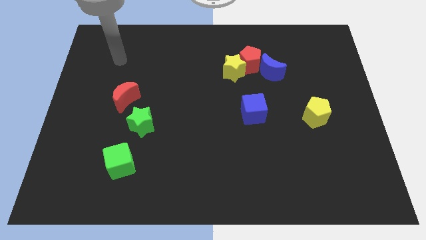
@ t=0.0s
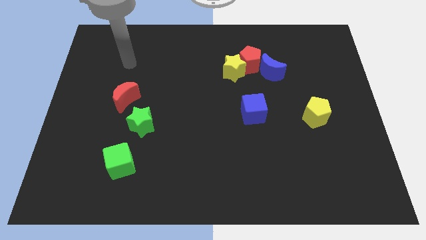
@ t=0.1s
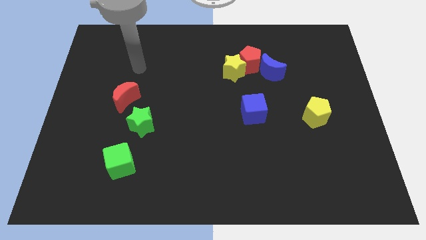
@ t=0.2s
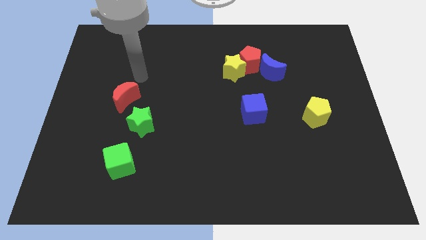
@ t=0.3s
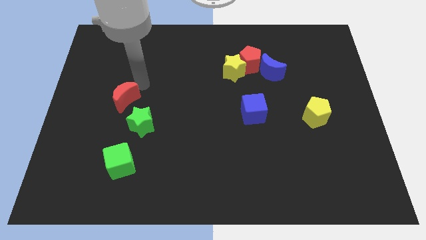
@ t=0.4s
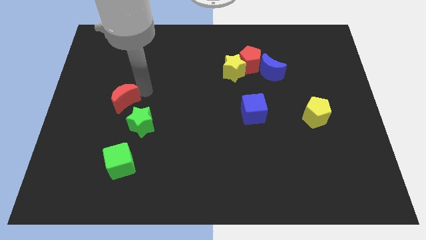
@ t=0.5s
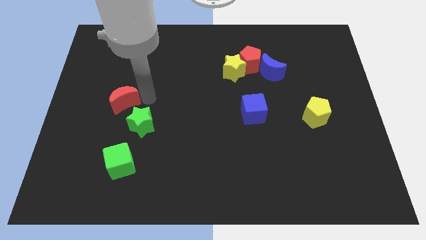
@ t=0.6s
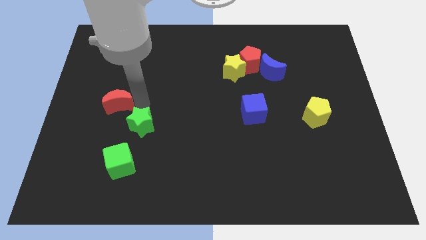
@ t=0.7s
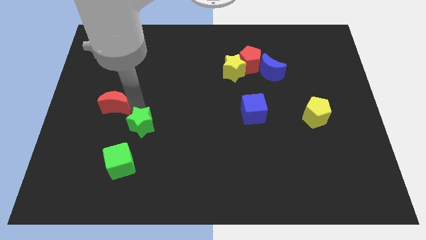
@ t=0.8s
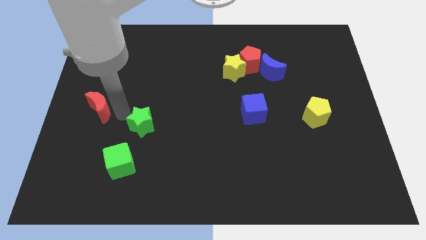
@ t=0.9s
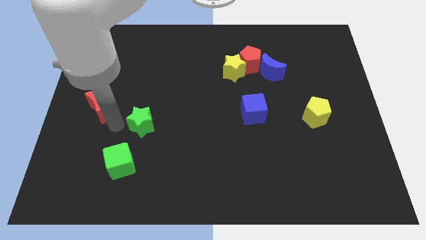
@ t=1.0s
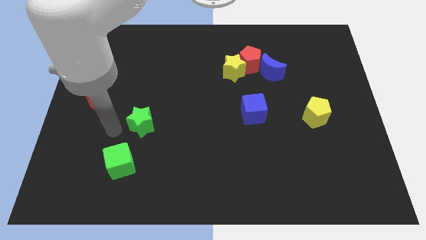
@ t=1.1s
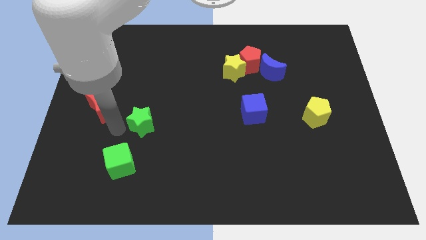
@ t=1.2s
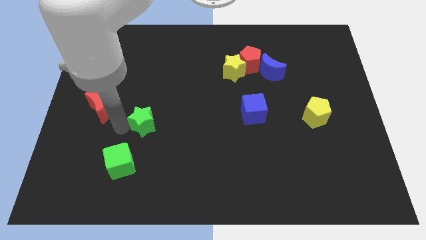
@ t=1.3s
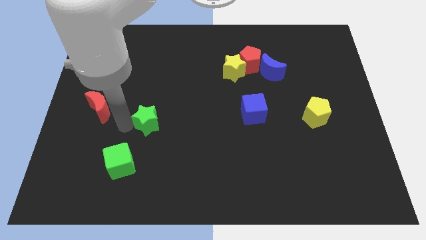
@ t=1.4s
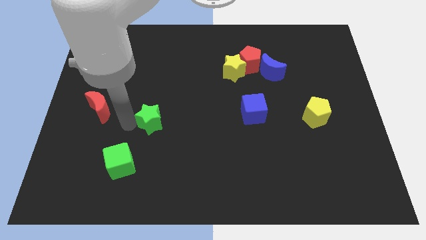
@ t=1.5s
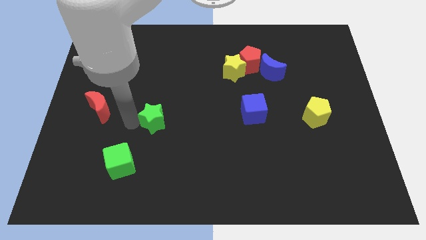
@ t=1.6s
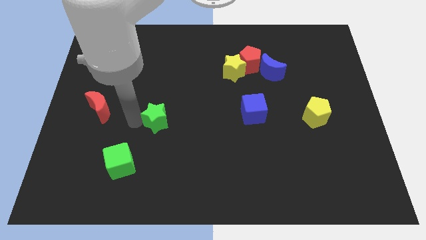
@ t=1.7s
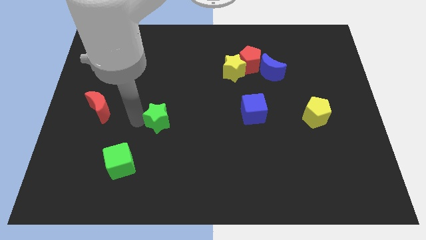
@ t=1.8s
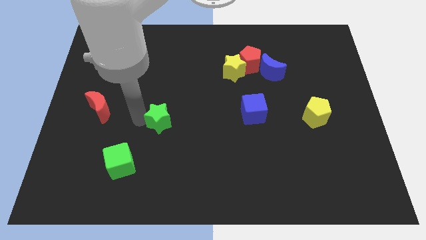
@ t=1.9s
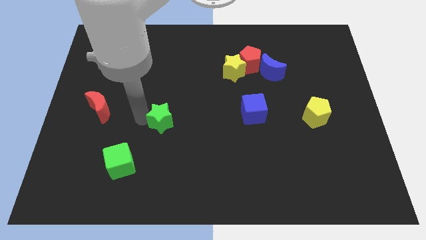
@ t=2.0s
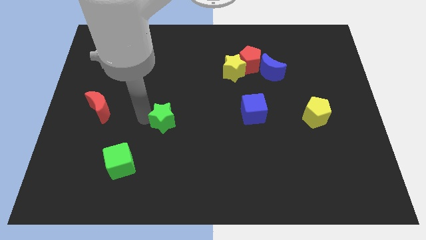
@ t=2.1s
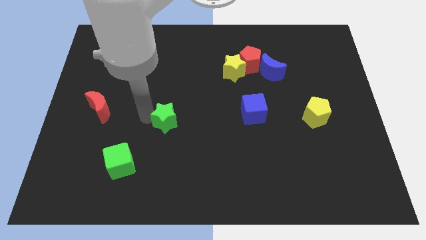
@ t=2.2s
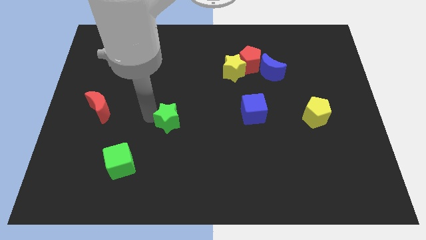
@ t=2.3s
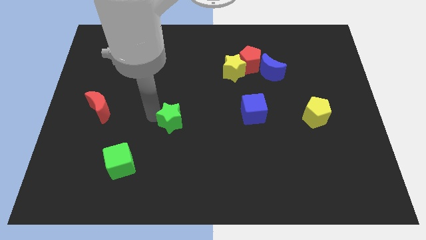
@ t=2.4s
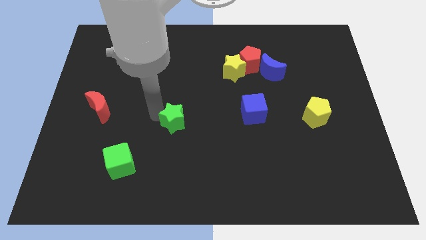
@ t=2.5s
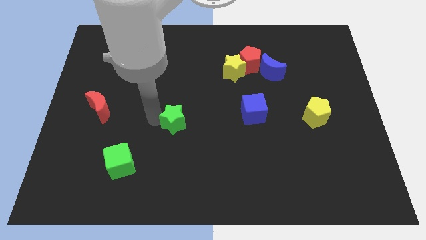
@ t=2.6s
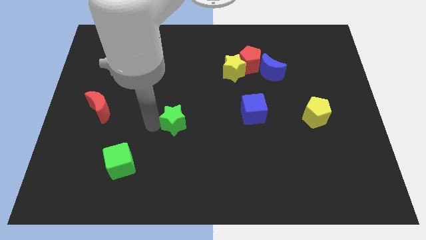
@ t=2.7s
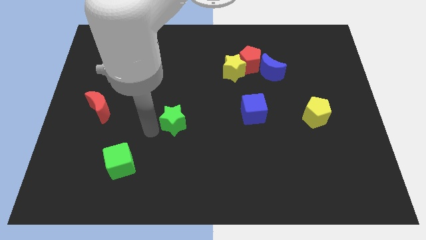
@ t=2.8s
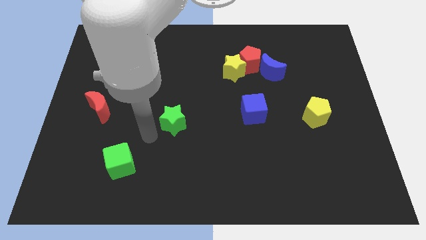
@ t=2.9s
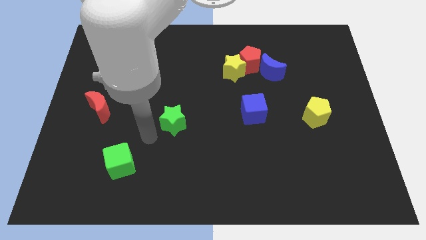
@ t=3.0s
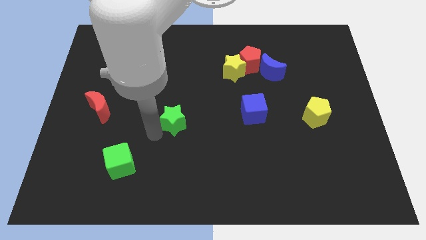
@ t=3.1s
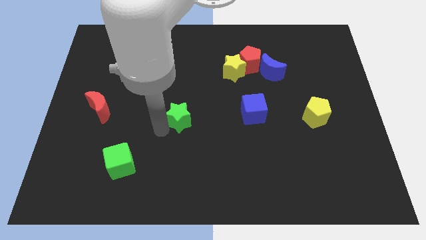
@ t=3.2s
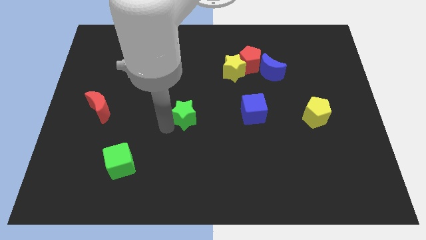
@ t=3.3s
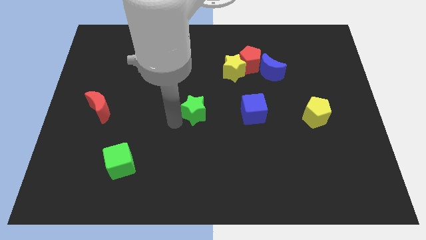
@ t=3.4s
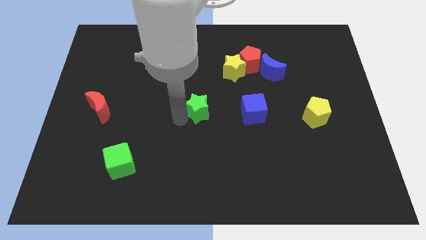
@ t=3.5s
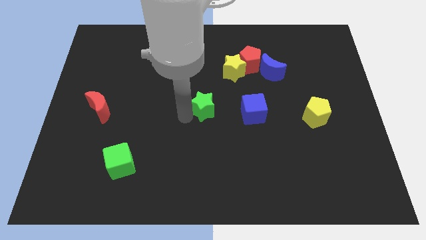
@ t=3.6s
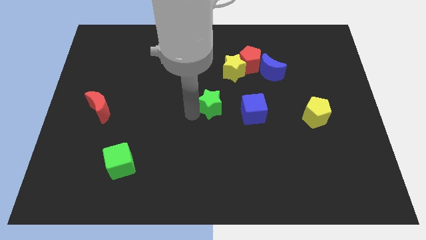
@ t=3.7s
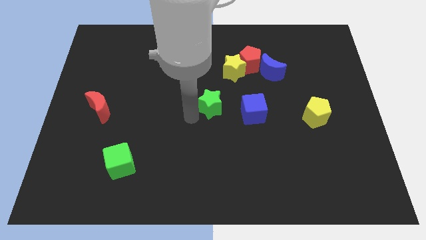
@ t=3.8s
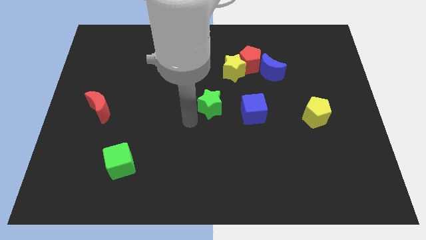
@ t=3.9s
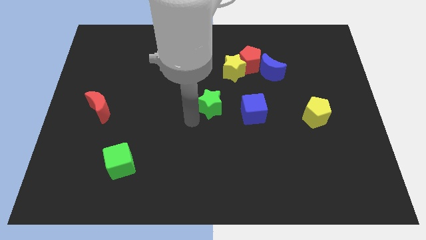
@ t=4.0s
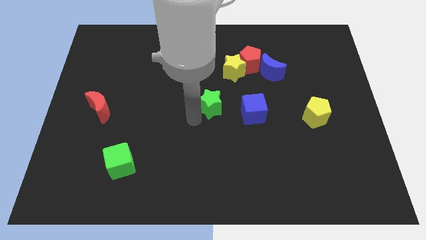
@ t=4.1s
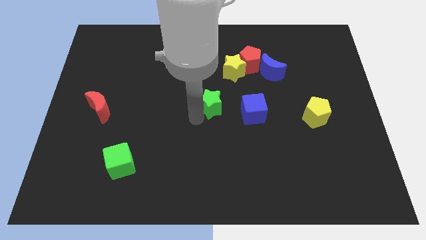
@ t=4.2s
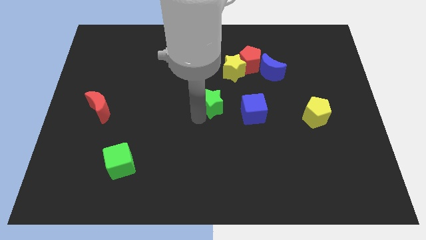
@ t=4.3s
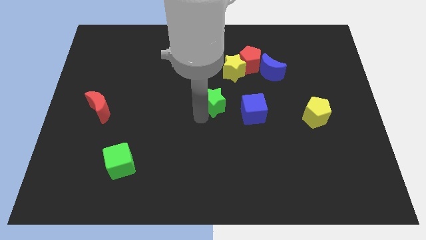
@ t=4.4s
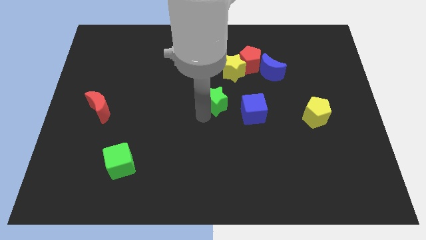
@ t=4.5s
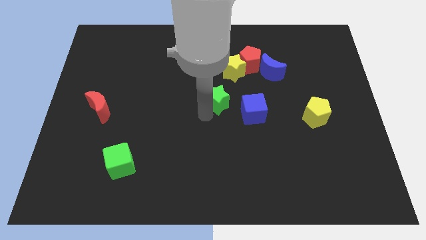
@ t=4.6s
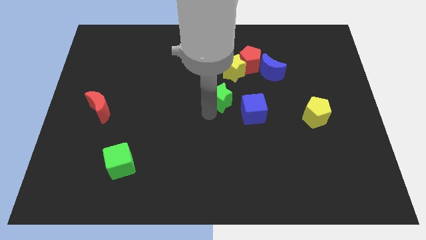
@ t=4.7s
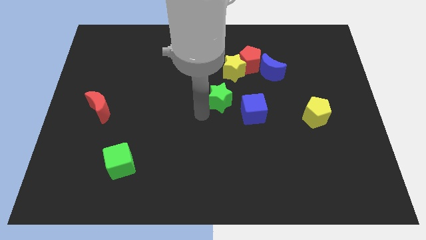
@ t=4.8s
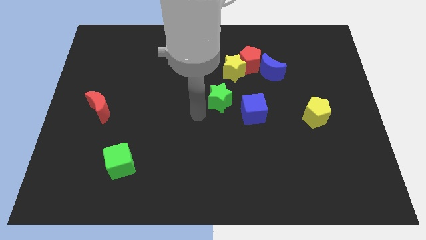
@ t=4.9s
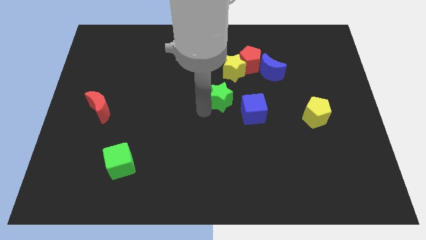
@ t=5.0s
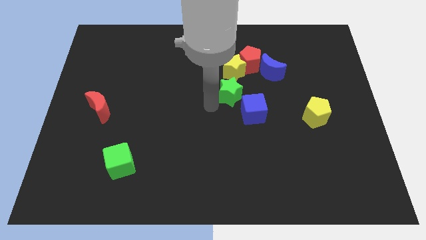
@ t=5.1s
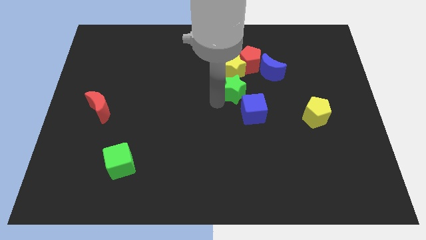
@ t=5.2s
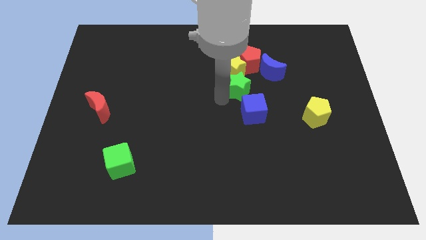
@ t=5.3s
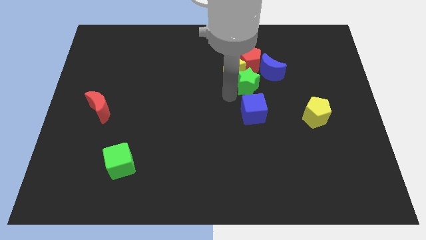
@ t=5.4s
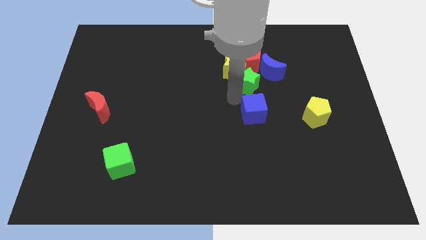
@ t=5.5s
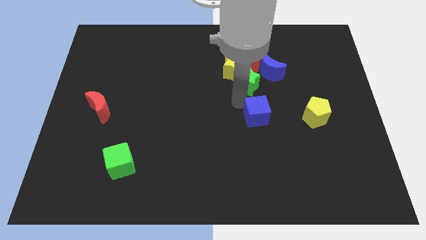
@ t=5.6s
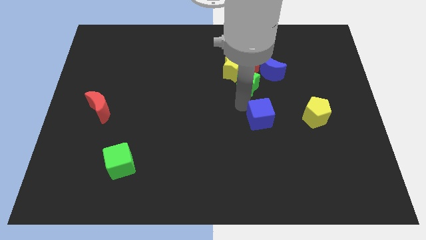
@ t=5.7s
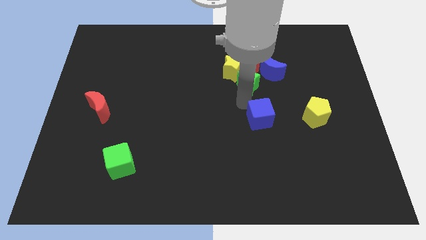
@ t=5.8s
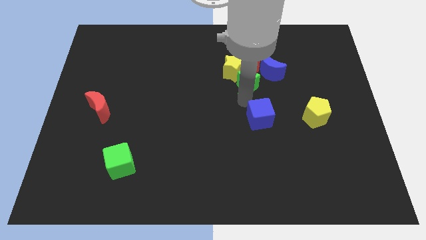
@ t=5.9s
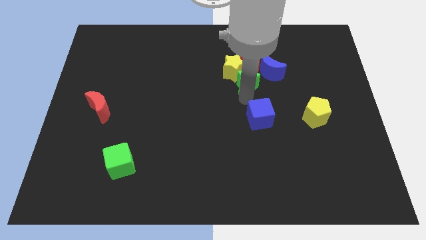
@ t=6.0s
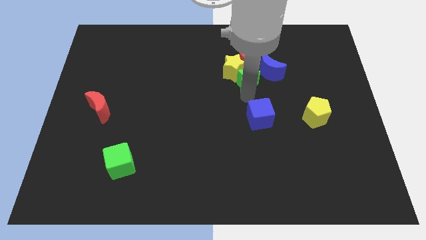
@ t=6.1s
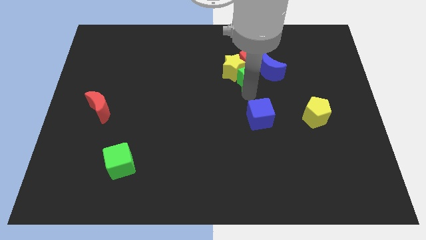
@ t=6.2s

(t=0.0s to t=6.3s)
move the green star towards the red pentagon

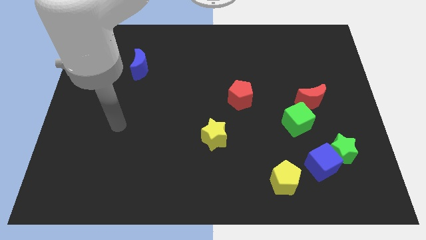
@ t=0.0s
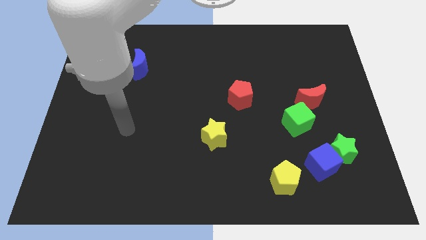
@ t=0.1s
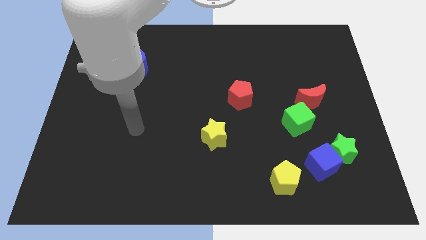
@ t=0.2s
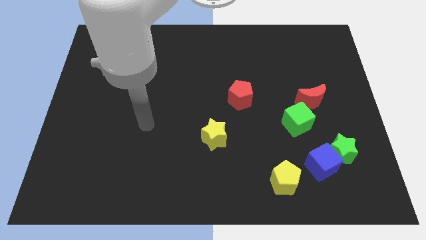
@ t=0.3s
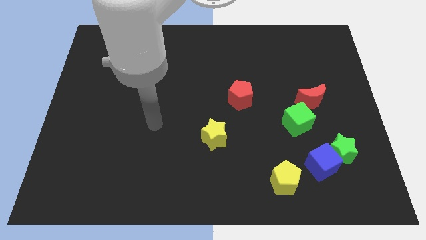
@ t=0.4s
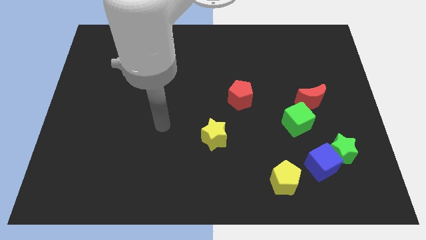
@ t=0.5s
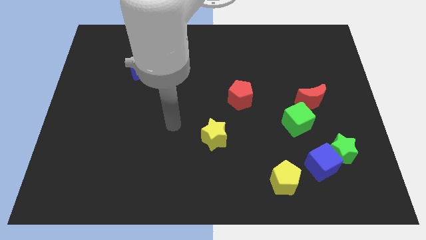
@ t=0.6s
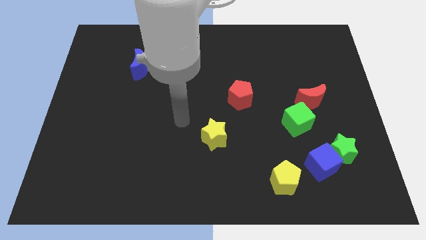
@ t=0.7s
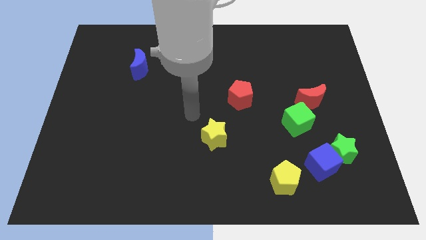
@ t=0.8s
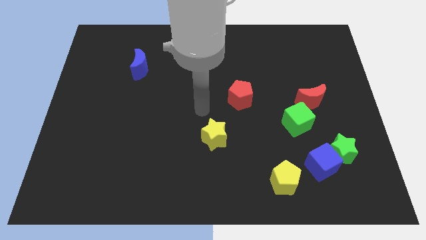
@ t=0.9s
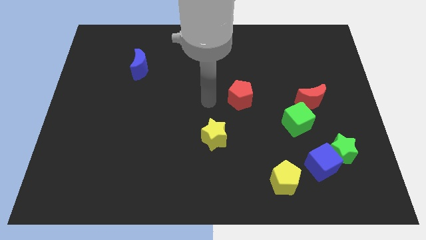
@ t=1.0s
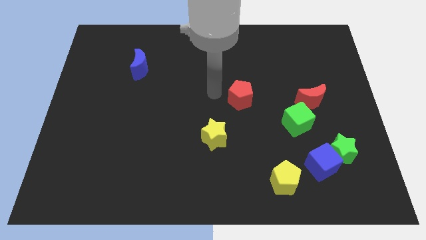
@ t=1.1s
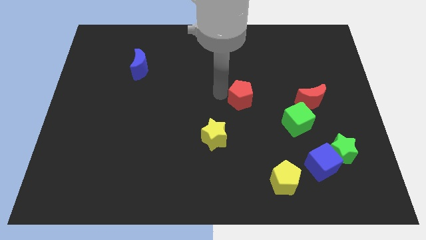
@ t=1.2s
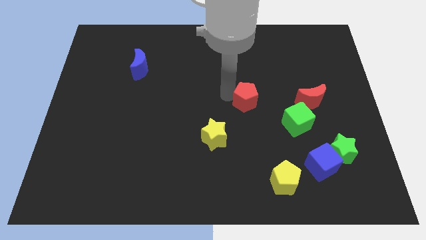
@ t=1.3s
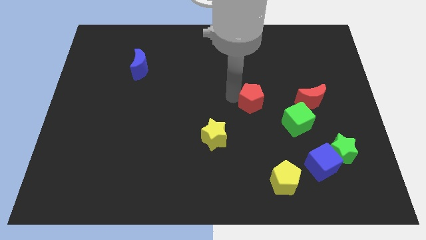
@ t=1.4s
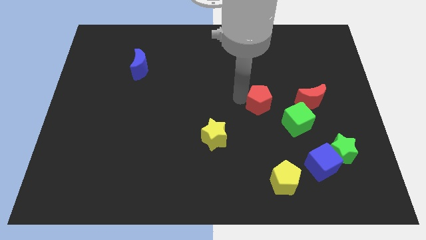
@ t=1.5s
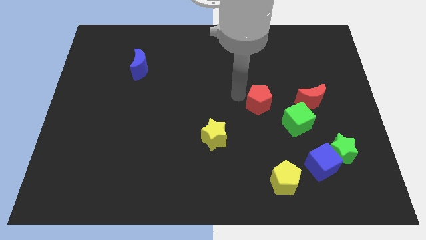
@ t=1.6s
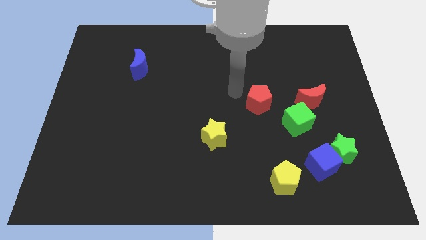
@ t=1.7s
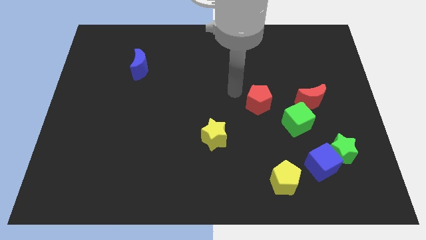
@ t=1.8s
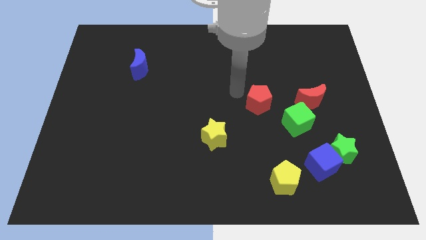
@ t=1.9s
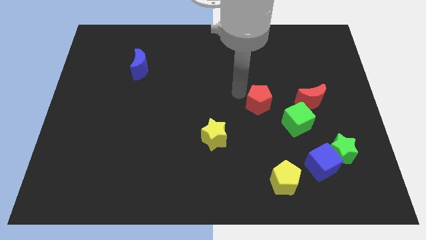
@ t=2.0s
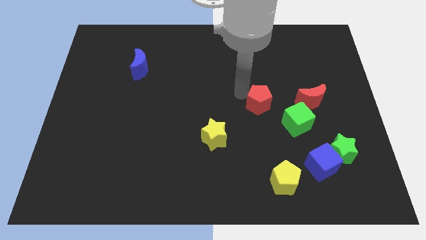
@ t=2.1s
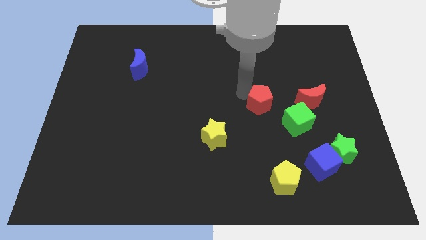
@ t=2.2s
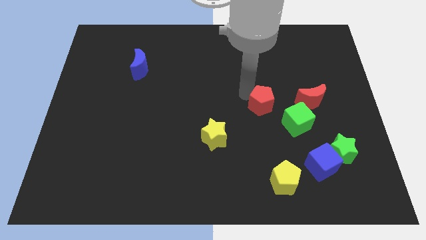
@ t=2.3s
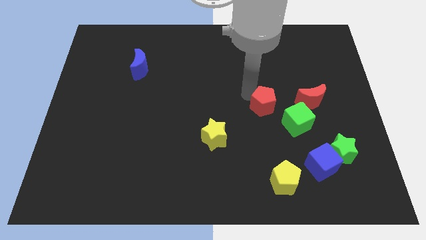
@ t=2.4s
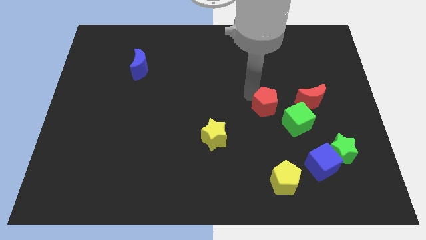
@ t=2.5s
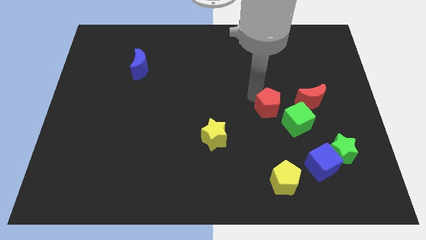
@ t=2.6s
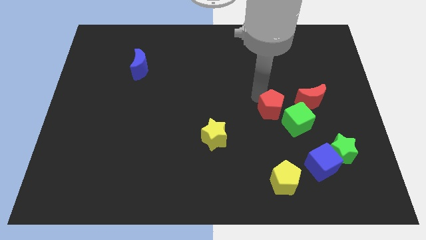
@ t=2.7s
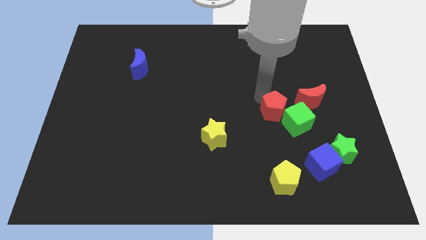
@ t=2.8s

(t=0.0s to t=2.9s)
slide the red pentagon next to the green cube
